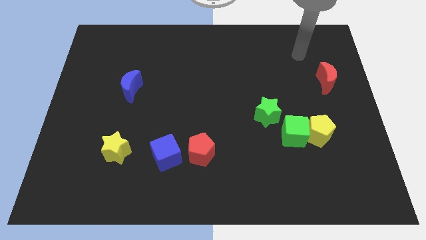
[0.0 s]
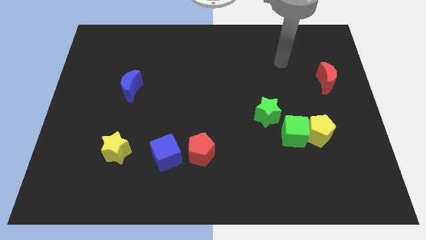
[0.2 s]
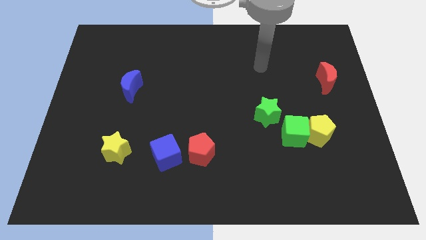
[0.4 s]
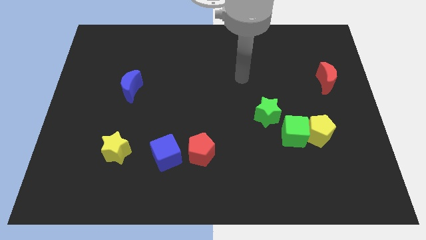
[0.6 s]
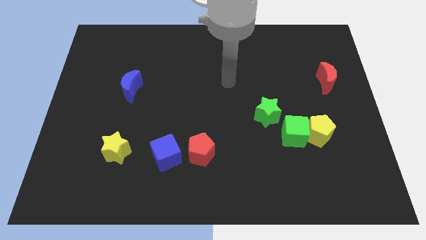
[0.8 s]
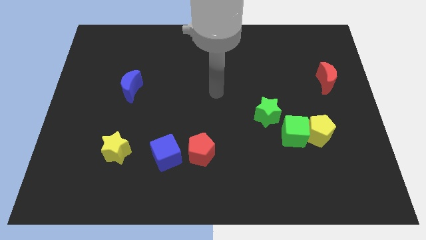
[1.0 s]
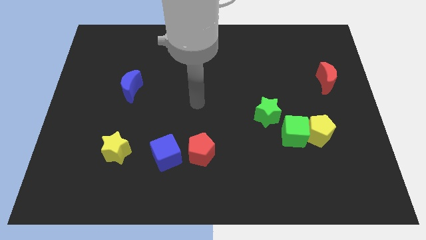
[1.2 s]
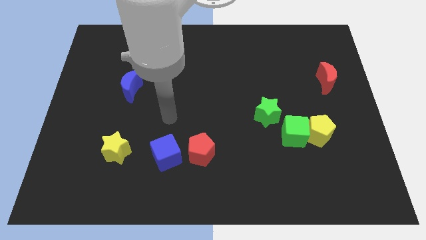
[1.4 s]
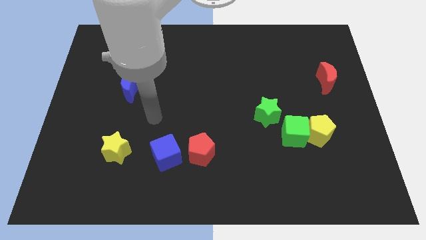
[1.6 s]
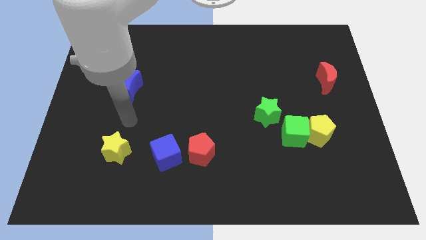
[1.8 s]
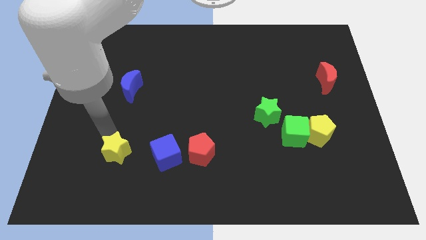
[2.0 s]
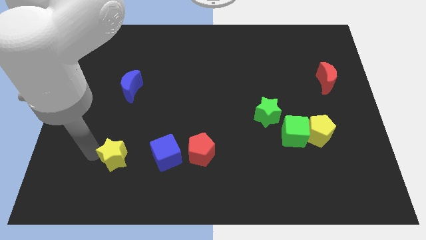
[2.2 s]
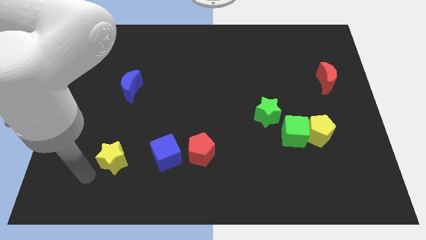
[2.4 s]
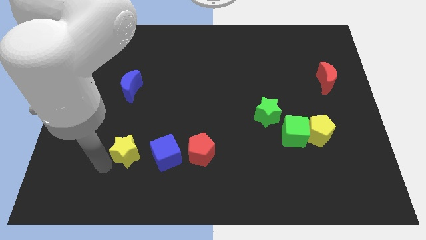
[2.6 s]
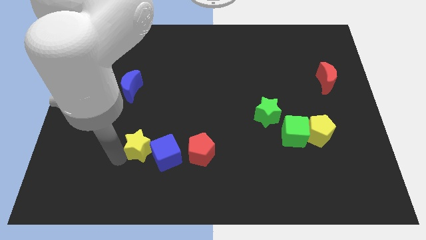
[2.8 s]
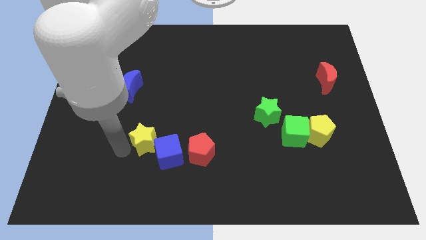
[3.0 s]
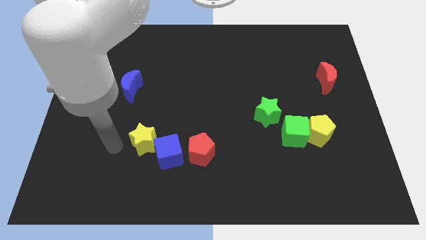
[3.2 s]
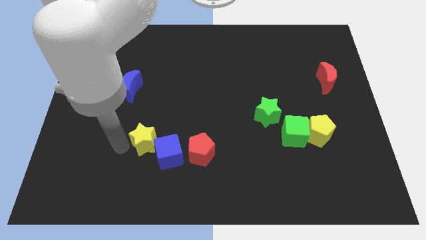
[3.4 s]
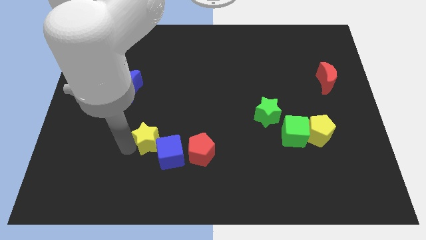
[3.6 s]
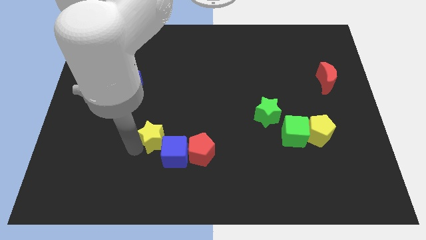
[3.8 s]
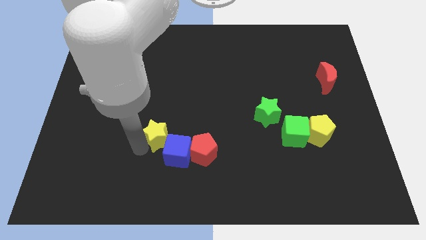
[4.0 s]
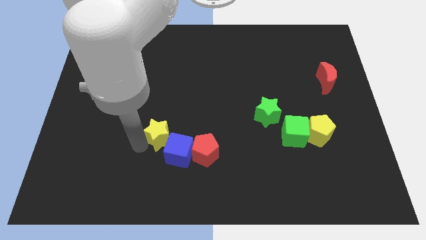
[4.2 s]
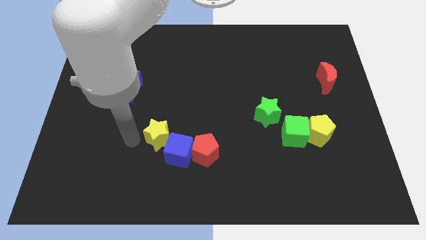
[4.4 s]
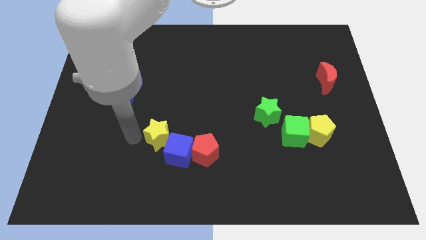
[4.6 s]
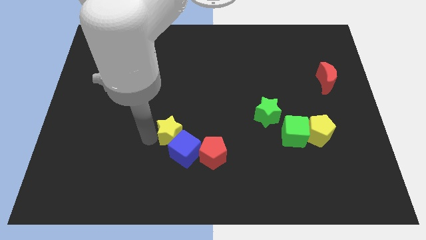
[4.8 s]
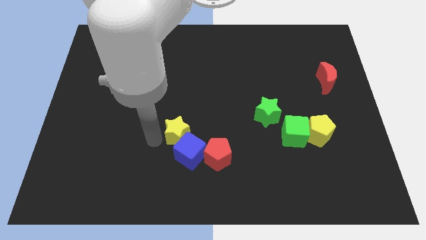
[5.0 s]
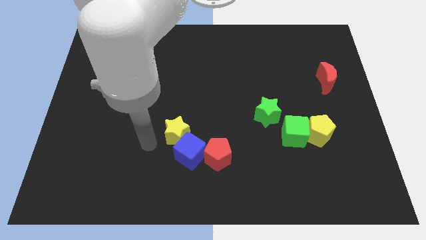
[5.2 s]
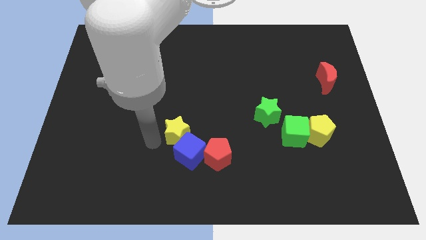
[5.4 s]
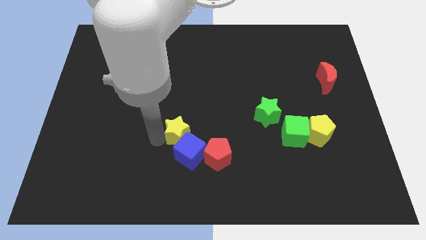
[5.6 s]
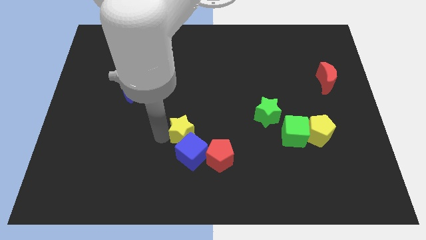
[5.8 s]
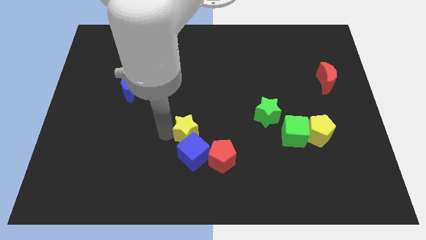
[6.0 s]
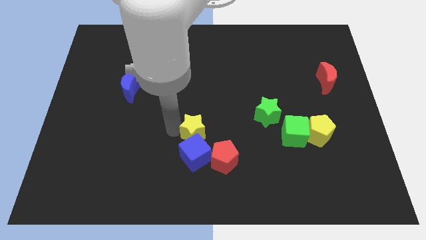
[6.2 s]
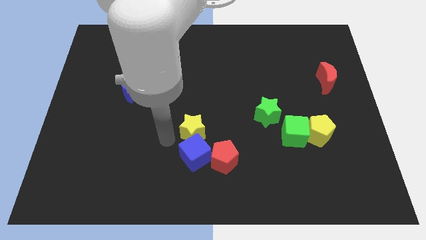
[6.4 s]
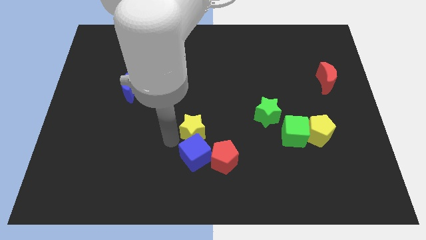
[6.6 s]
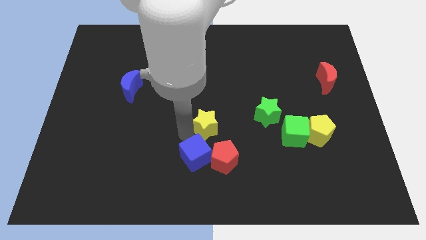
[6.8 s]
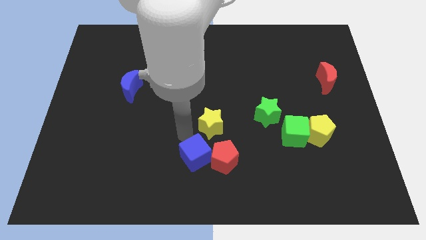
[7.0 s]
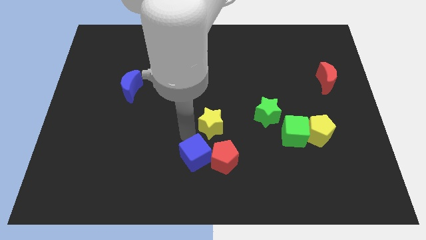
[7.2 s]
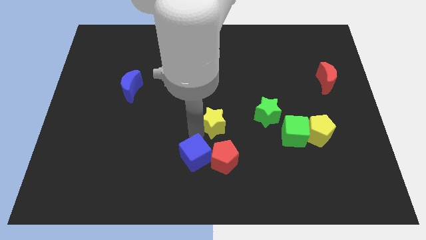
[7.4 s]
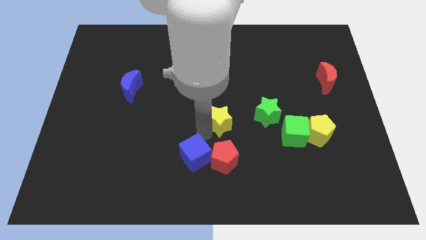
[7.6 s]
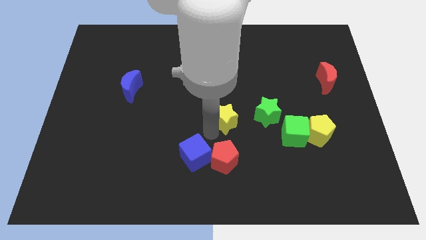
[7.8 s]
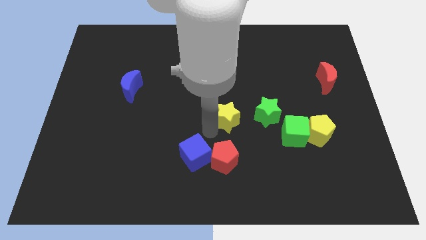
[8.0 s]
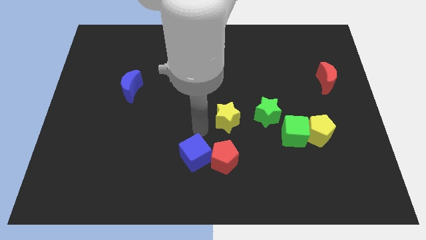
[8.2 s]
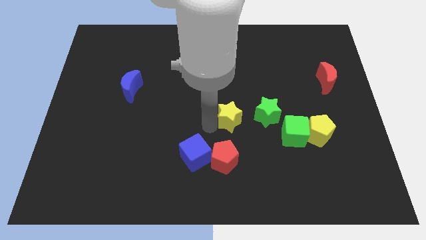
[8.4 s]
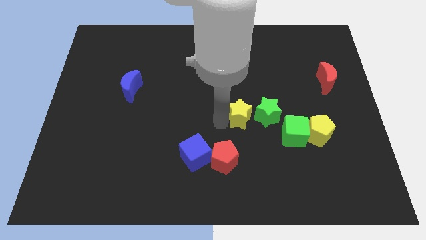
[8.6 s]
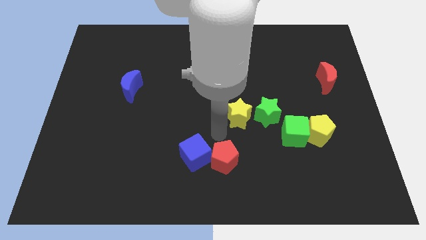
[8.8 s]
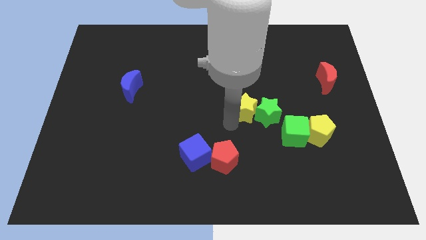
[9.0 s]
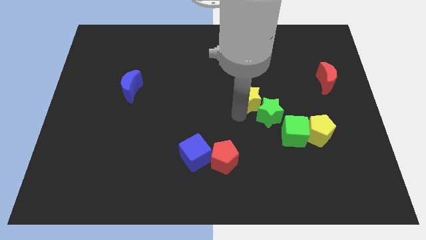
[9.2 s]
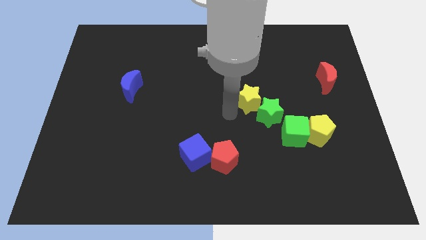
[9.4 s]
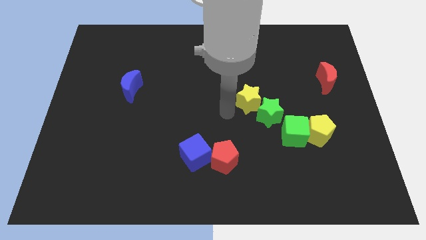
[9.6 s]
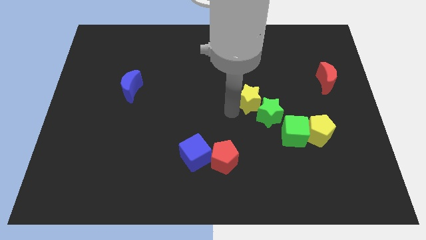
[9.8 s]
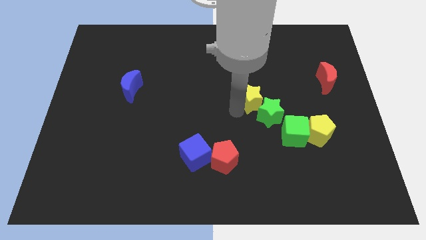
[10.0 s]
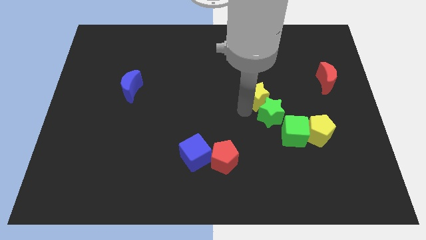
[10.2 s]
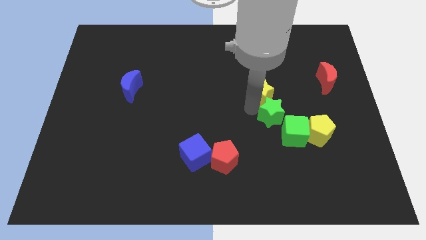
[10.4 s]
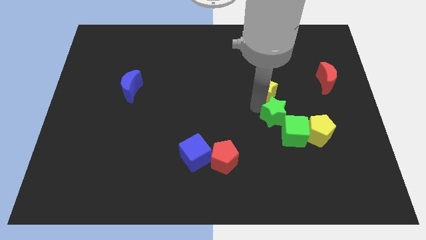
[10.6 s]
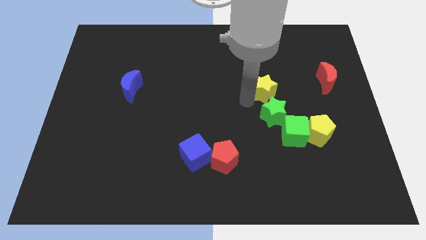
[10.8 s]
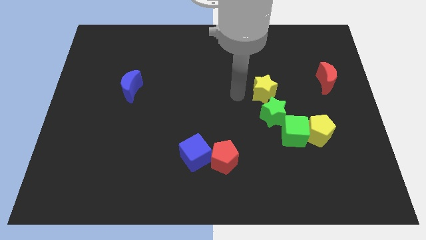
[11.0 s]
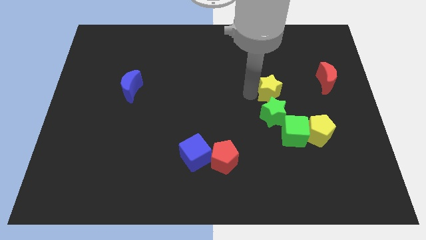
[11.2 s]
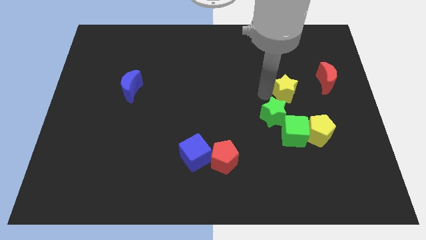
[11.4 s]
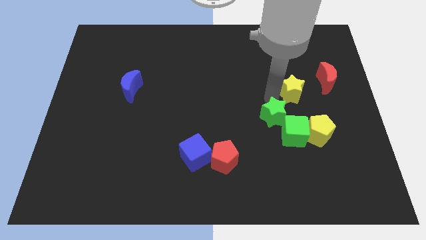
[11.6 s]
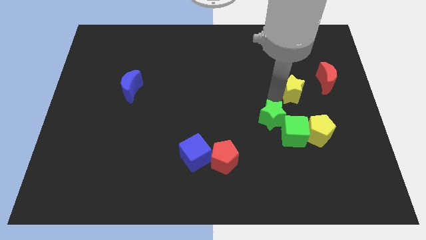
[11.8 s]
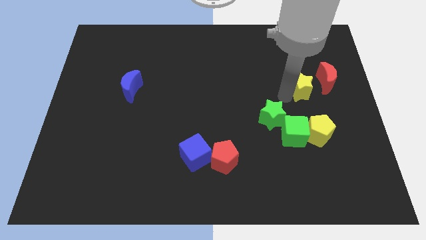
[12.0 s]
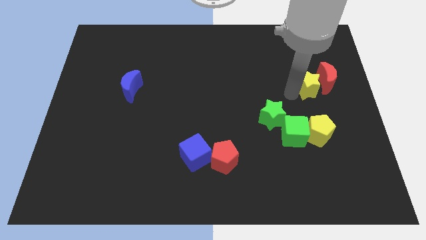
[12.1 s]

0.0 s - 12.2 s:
put the yellow star towards the red moon

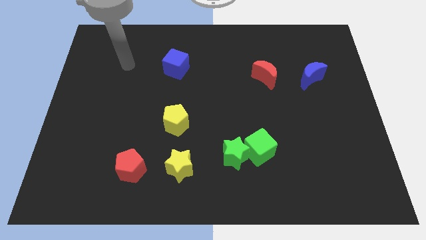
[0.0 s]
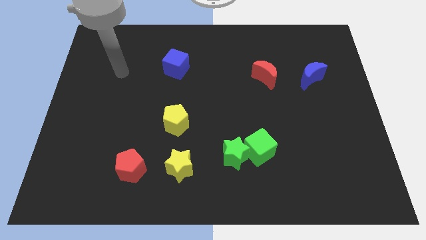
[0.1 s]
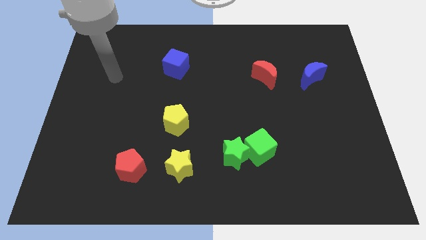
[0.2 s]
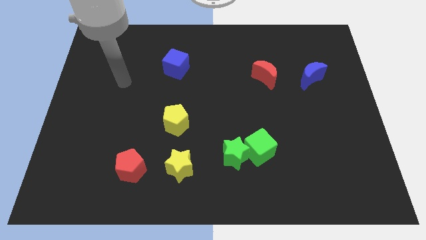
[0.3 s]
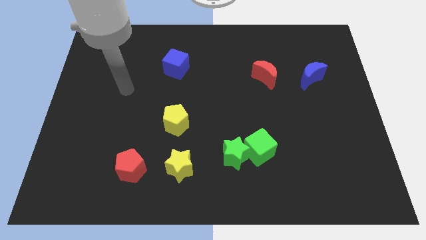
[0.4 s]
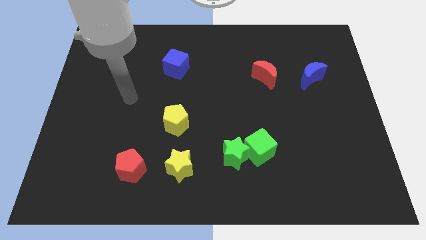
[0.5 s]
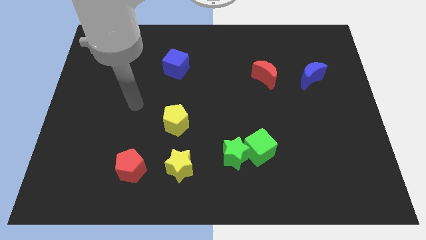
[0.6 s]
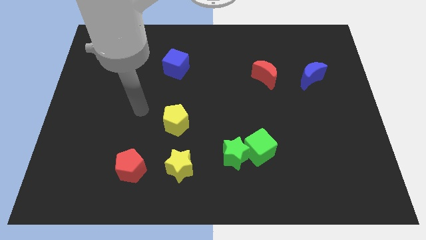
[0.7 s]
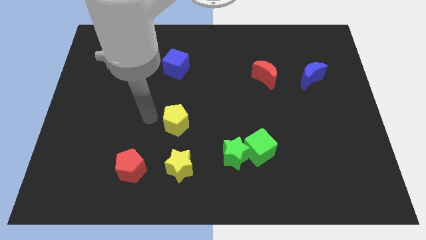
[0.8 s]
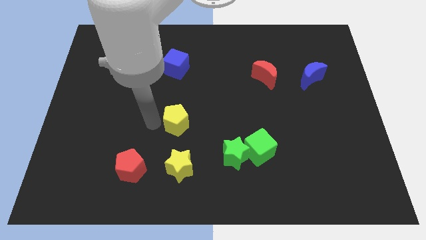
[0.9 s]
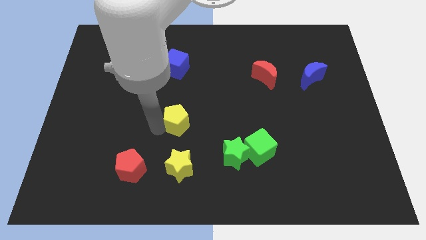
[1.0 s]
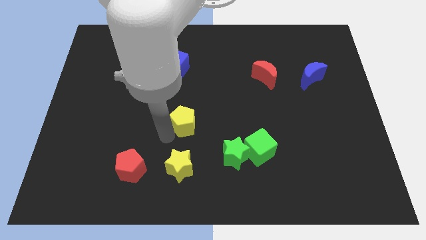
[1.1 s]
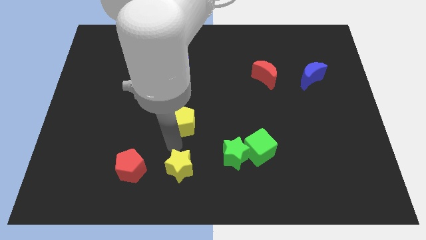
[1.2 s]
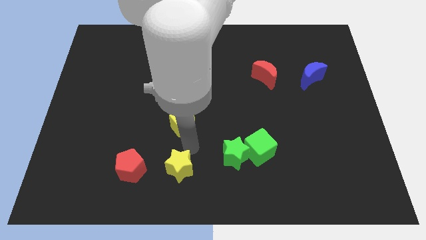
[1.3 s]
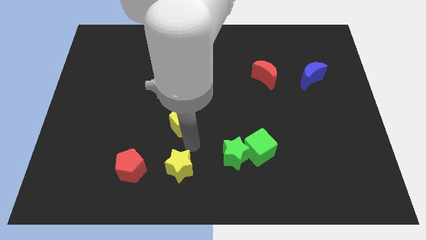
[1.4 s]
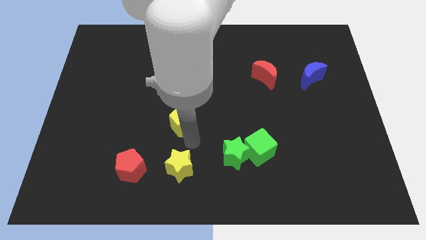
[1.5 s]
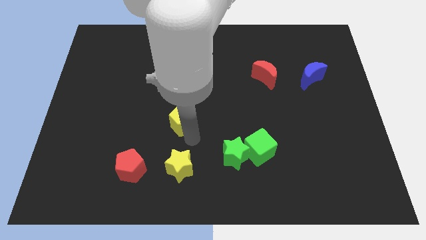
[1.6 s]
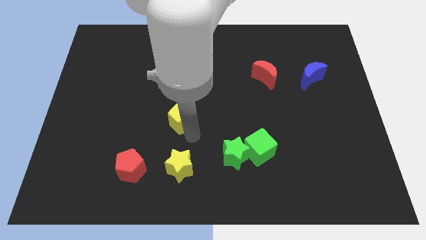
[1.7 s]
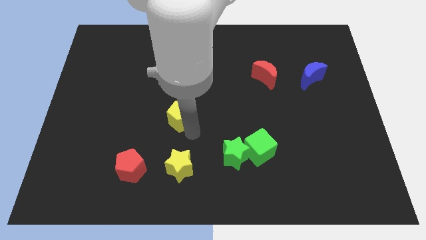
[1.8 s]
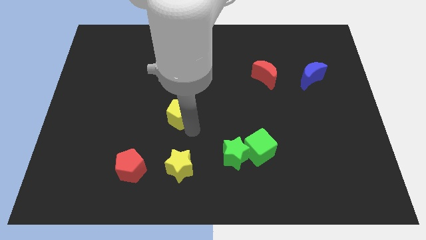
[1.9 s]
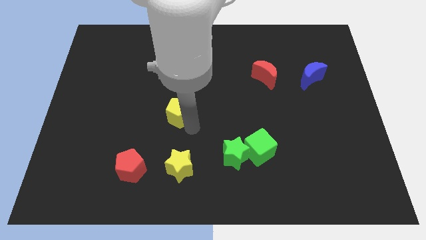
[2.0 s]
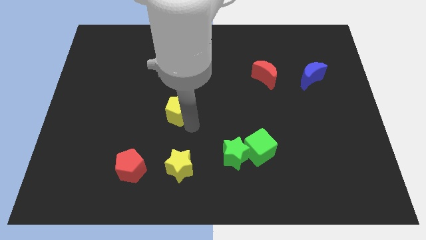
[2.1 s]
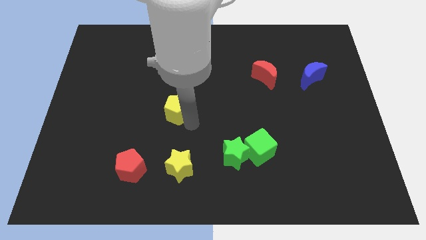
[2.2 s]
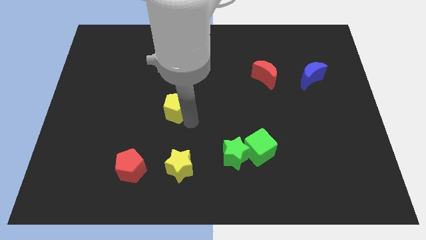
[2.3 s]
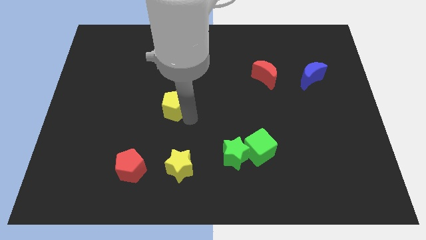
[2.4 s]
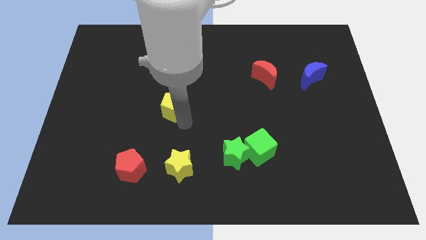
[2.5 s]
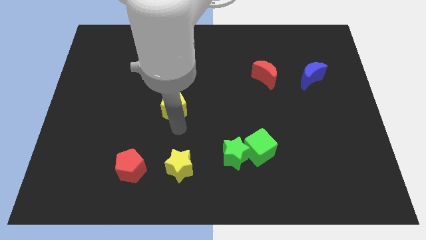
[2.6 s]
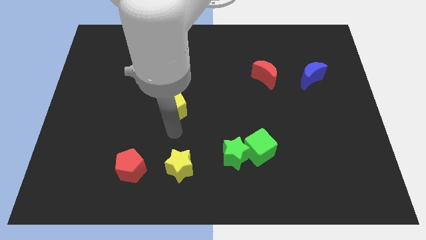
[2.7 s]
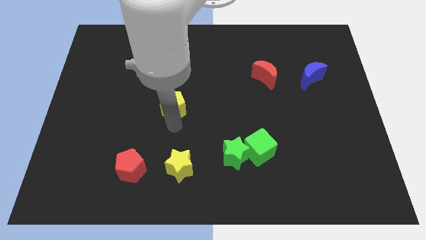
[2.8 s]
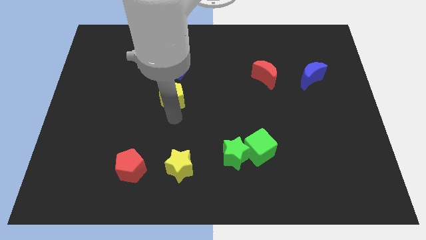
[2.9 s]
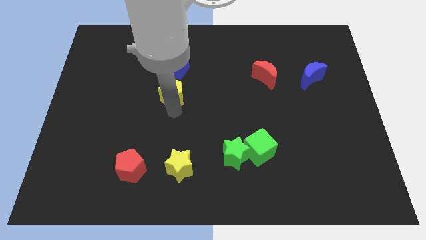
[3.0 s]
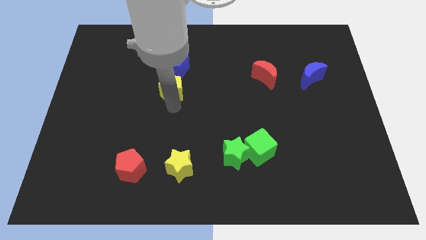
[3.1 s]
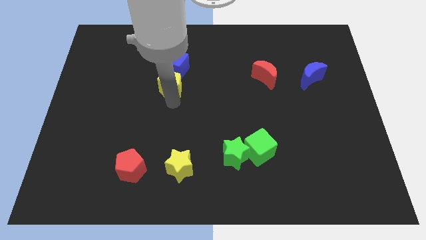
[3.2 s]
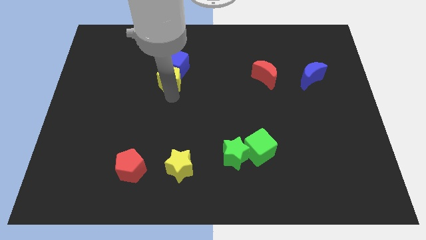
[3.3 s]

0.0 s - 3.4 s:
put the yellow pentagon to the blue cube
